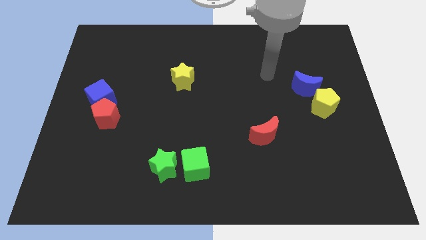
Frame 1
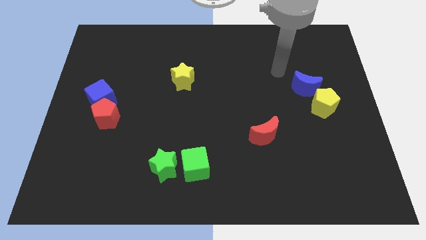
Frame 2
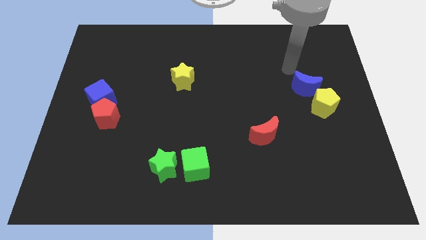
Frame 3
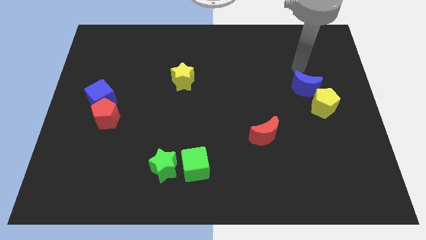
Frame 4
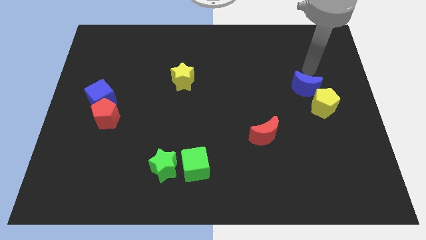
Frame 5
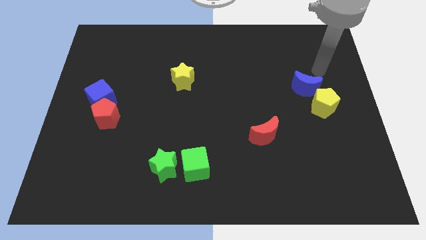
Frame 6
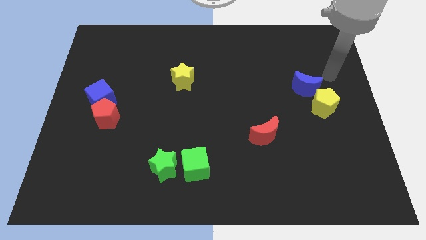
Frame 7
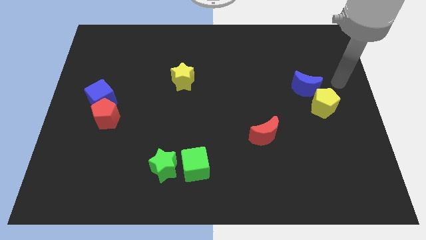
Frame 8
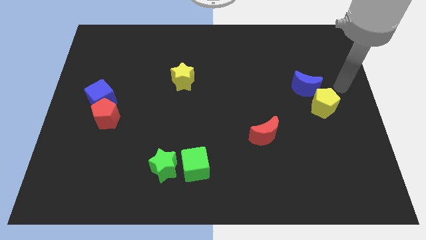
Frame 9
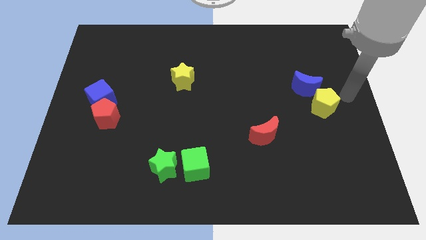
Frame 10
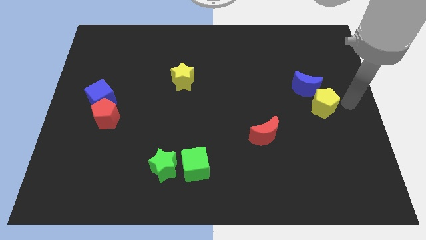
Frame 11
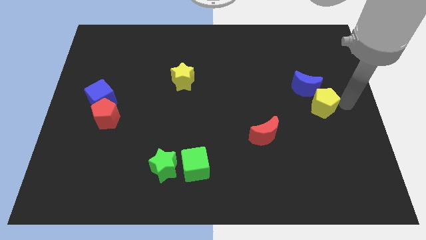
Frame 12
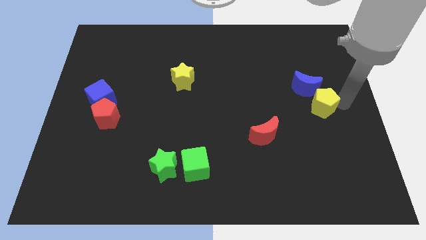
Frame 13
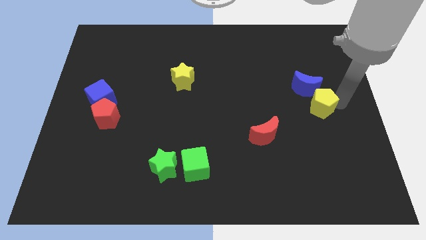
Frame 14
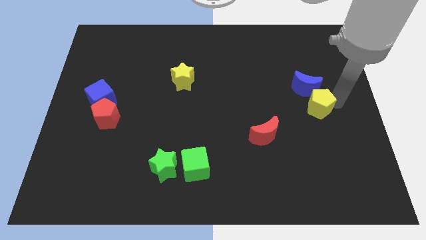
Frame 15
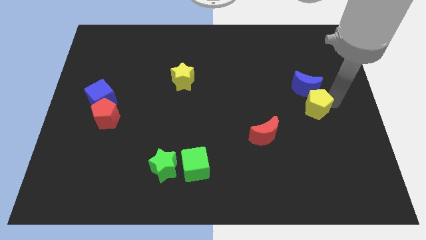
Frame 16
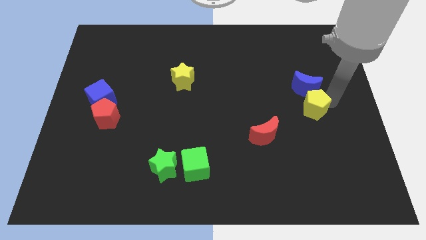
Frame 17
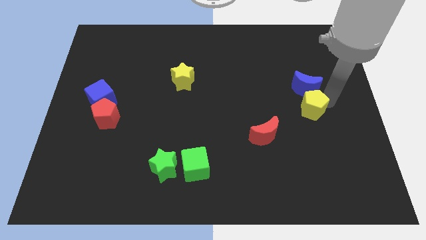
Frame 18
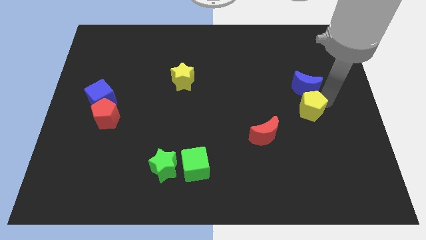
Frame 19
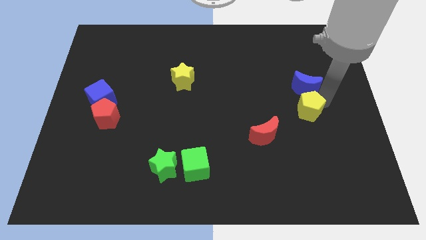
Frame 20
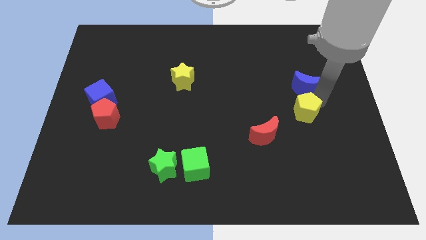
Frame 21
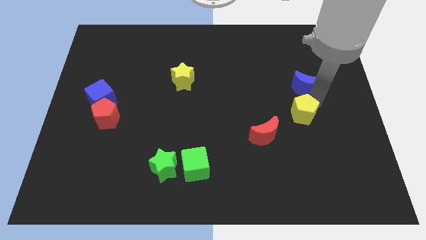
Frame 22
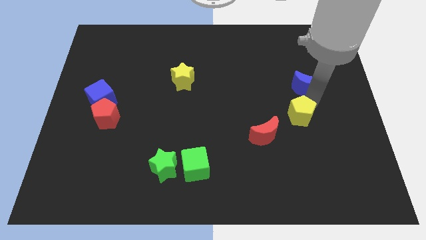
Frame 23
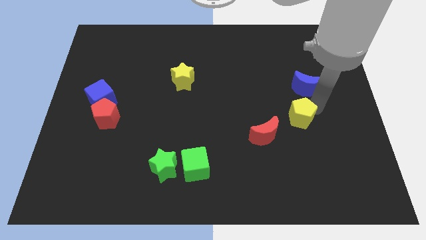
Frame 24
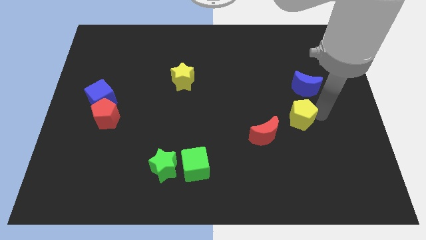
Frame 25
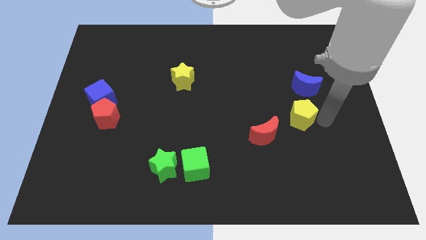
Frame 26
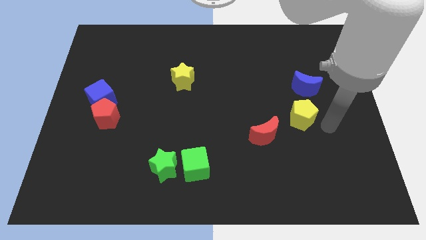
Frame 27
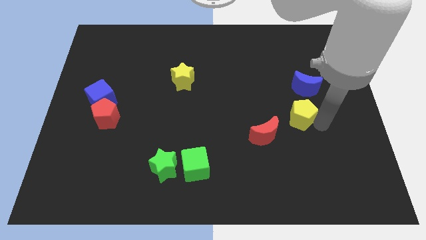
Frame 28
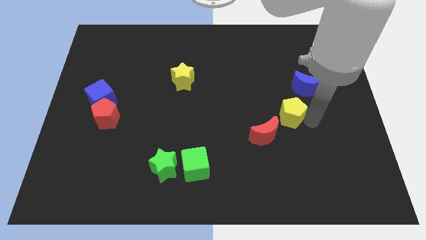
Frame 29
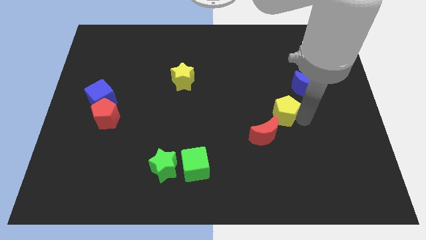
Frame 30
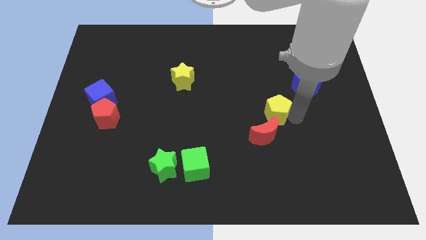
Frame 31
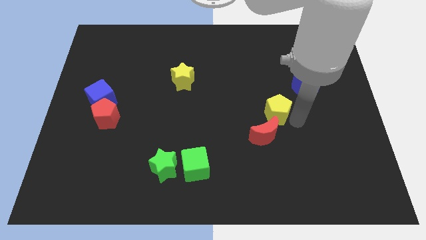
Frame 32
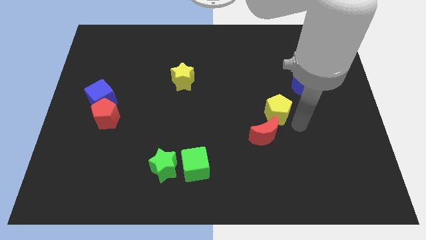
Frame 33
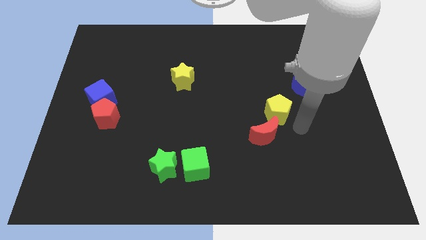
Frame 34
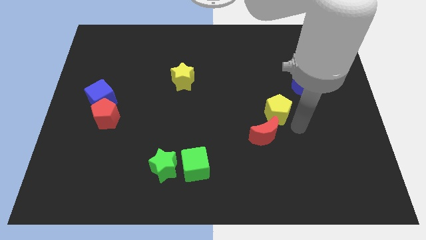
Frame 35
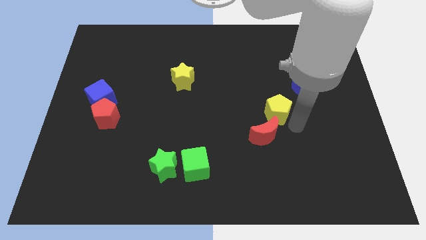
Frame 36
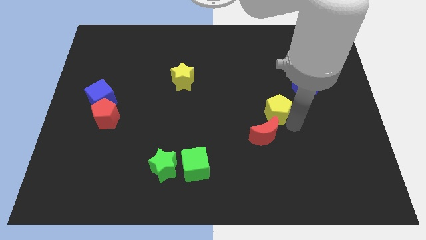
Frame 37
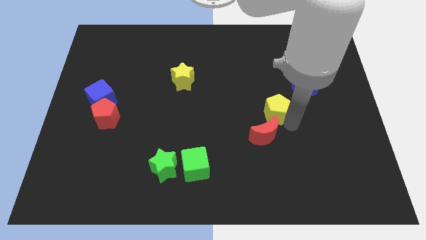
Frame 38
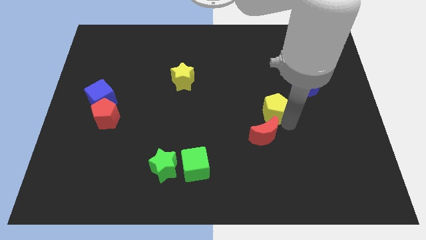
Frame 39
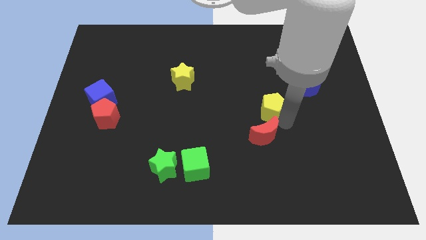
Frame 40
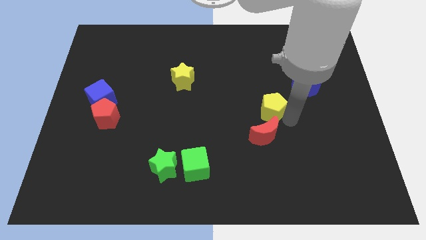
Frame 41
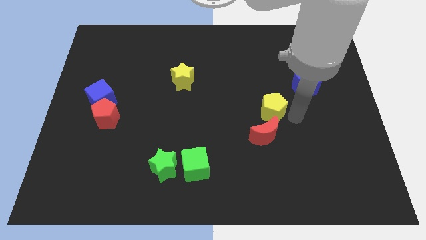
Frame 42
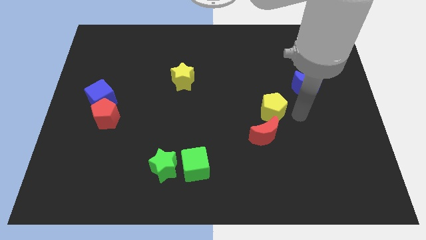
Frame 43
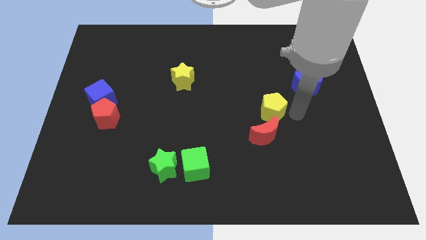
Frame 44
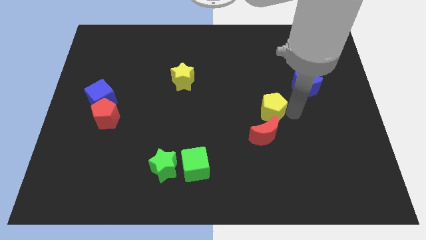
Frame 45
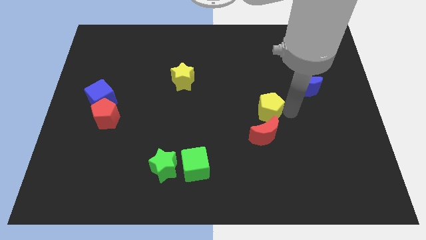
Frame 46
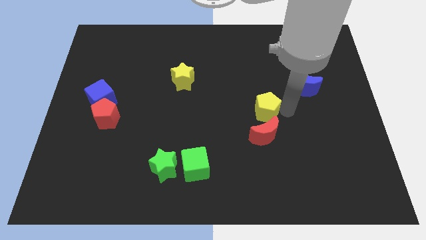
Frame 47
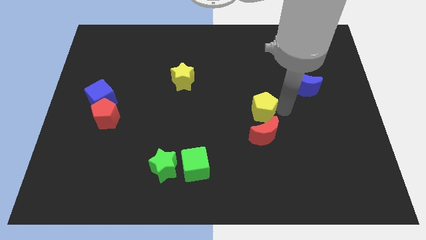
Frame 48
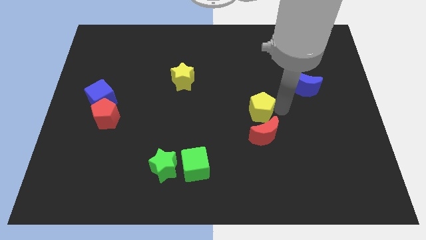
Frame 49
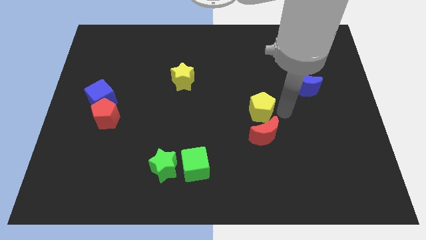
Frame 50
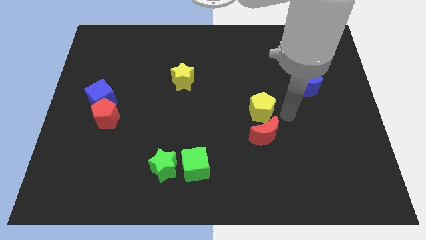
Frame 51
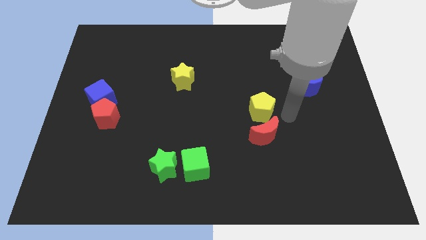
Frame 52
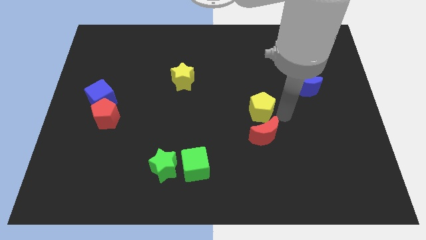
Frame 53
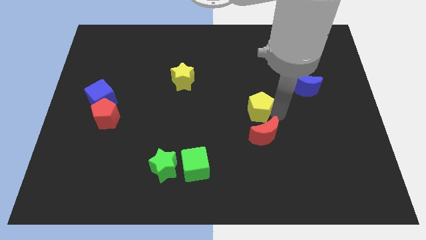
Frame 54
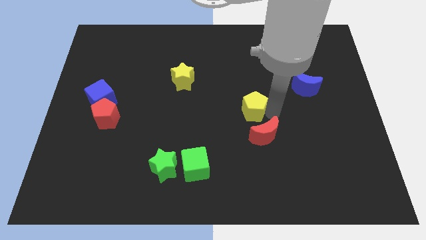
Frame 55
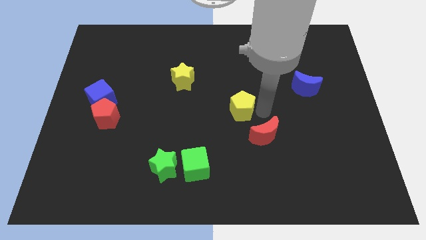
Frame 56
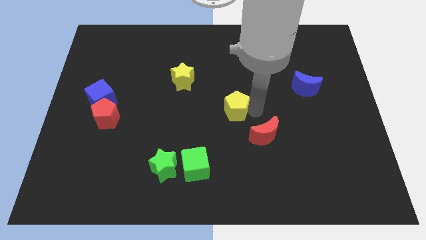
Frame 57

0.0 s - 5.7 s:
move the yellow pentagon to the left

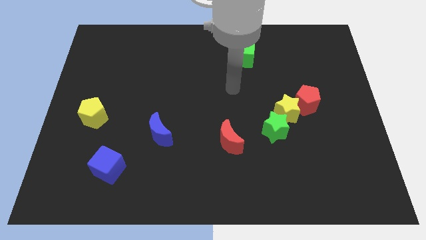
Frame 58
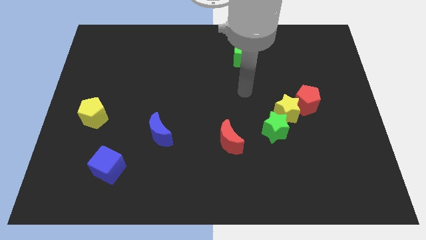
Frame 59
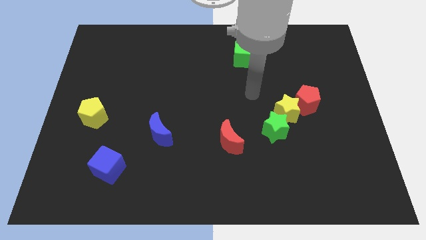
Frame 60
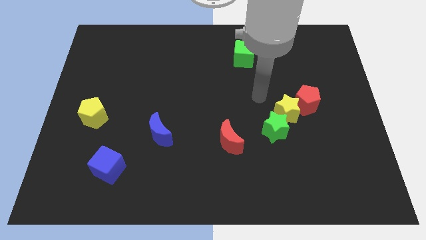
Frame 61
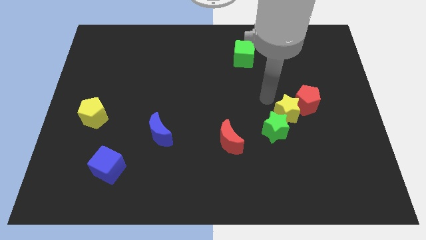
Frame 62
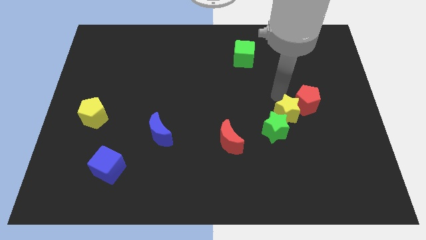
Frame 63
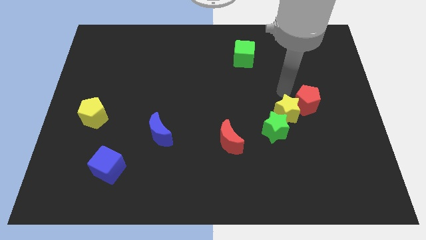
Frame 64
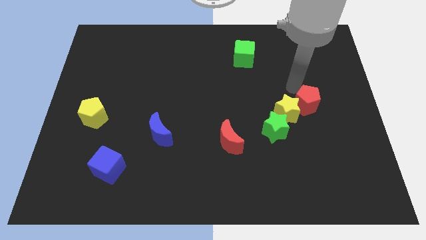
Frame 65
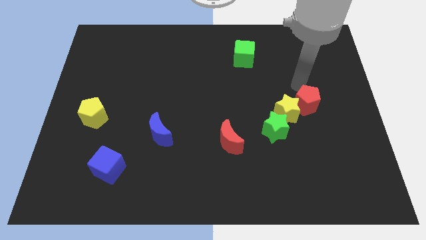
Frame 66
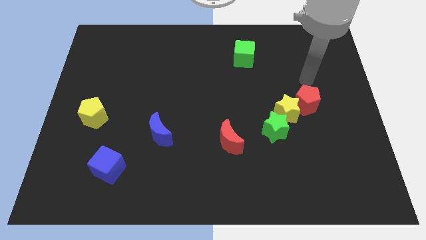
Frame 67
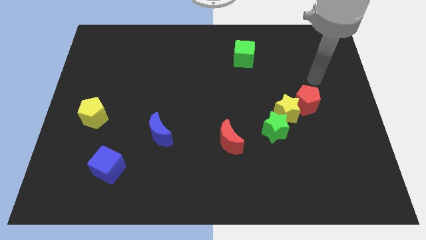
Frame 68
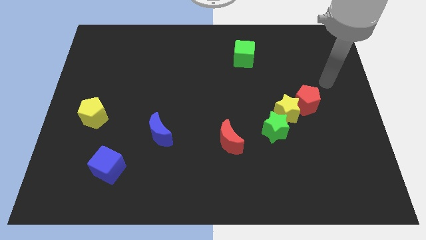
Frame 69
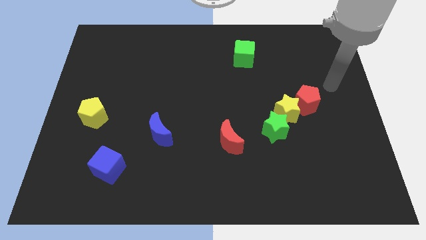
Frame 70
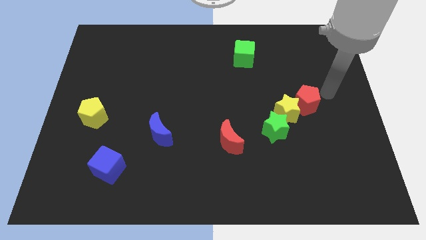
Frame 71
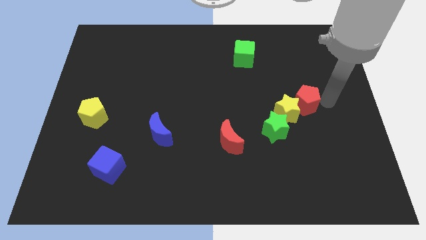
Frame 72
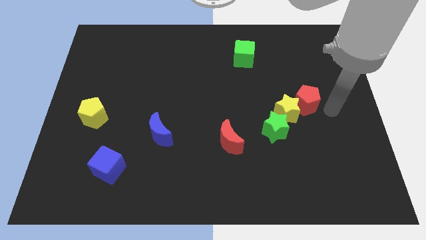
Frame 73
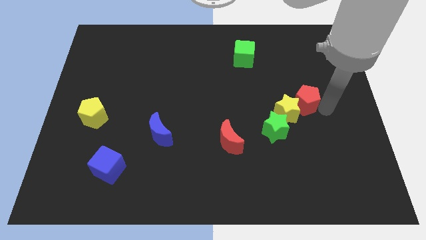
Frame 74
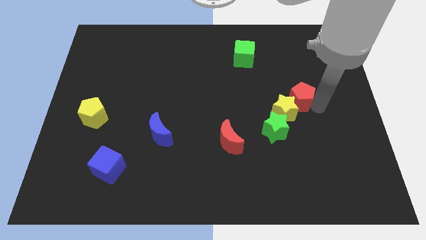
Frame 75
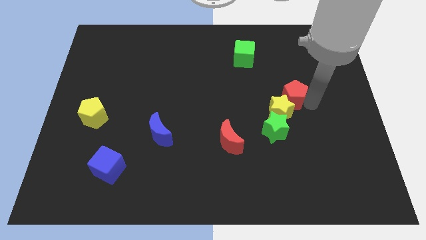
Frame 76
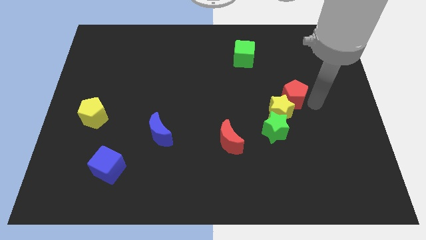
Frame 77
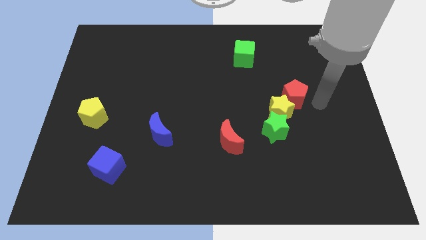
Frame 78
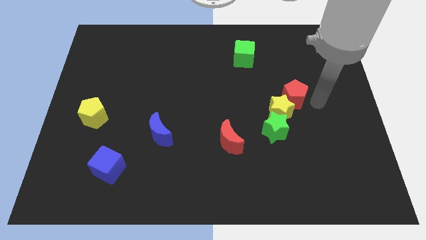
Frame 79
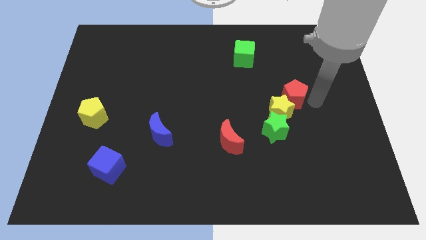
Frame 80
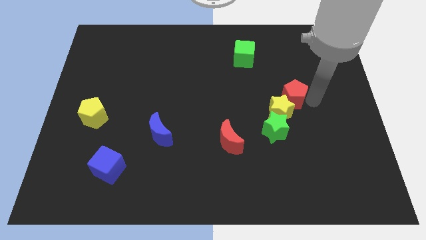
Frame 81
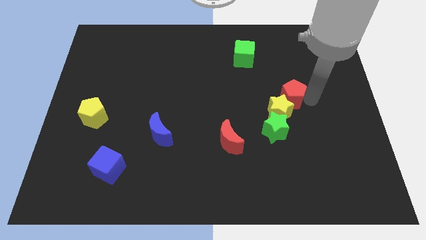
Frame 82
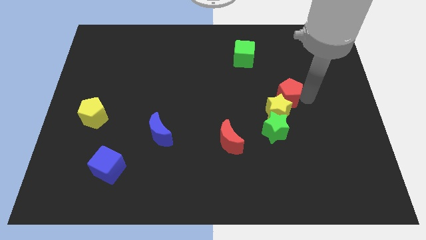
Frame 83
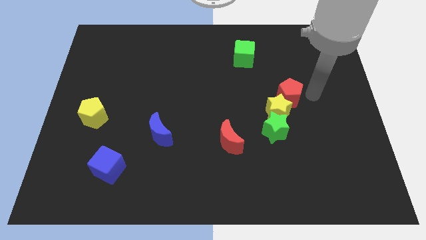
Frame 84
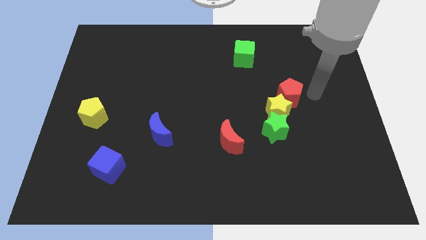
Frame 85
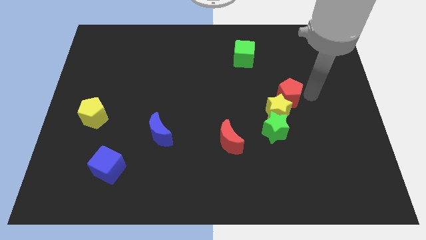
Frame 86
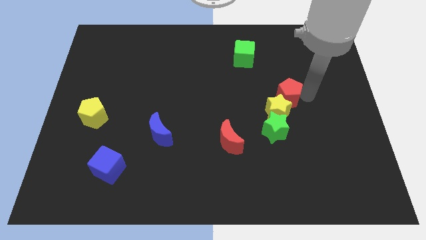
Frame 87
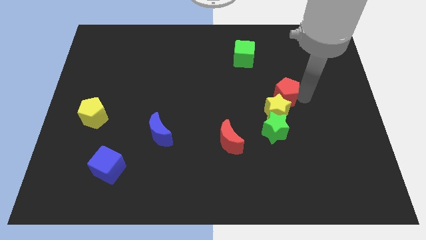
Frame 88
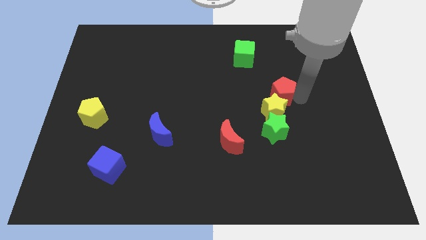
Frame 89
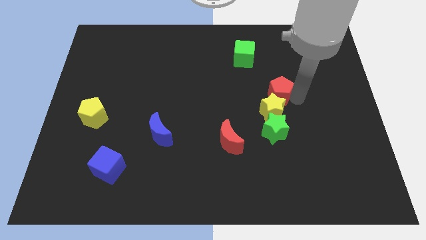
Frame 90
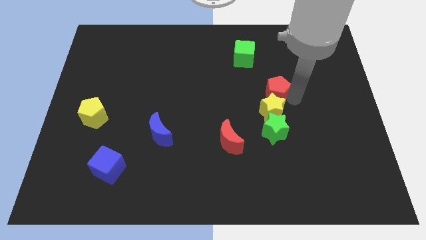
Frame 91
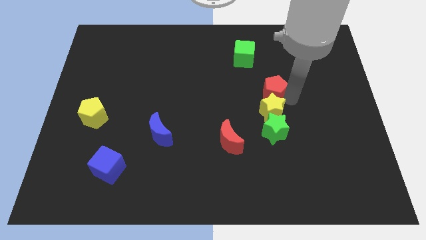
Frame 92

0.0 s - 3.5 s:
slightly move the red pentagon to the left
